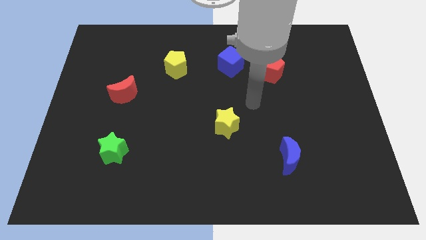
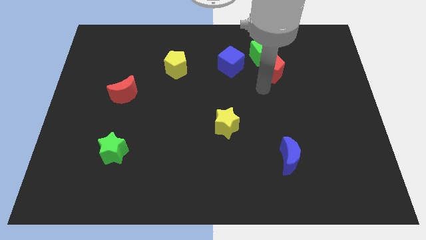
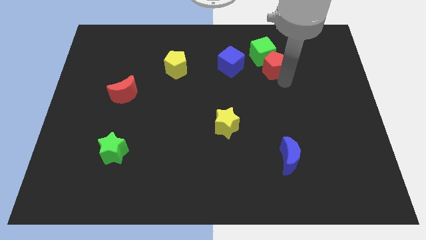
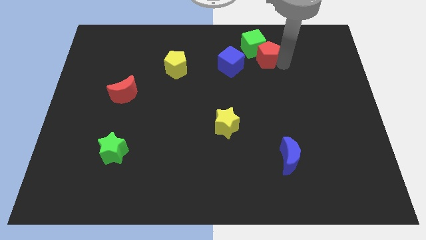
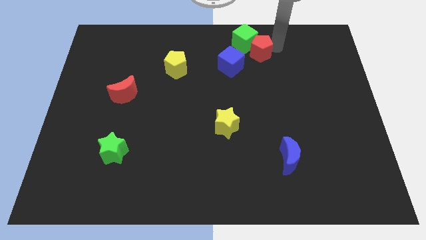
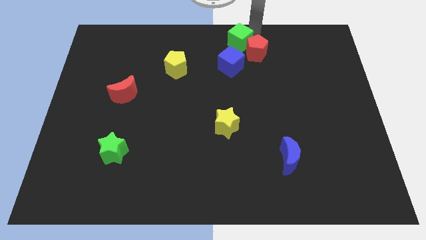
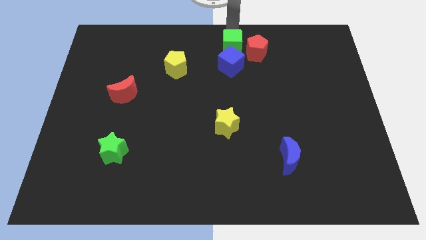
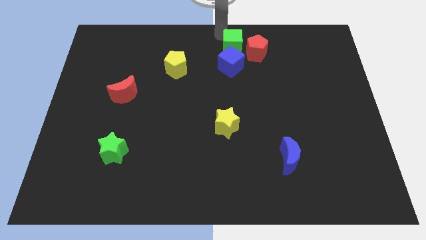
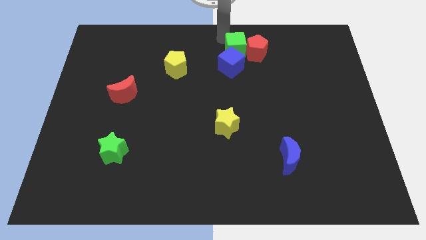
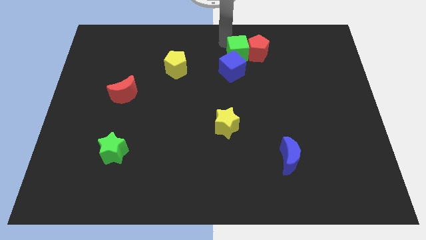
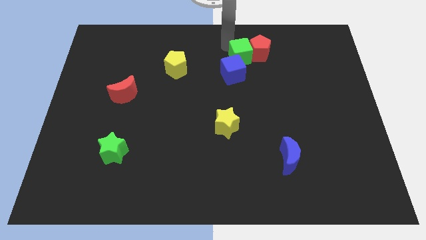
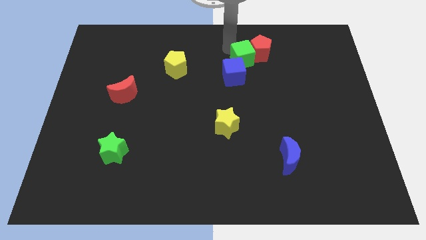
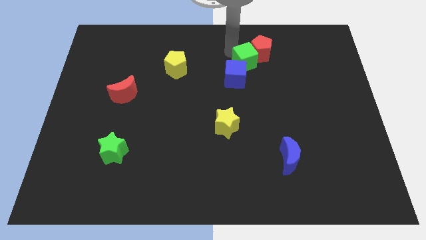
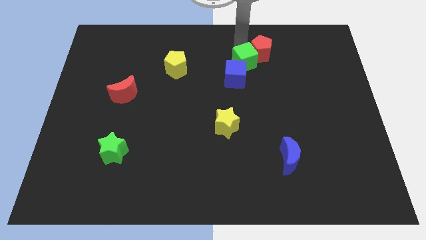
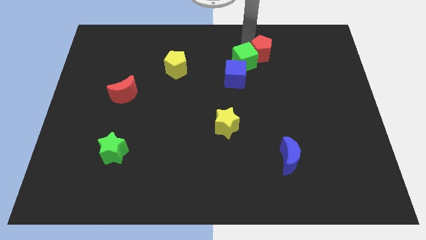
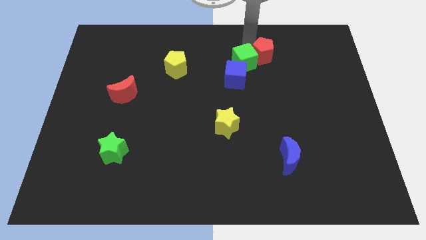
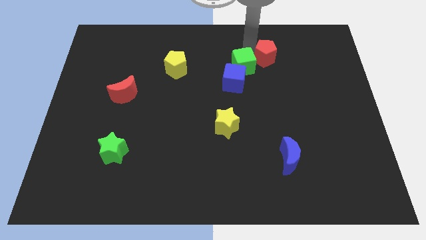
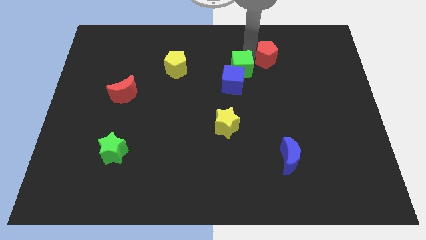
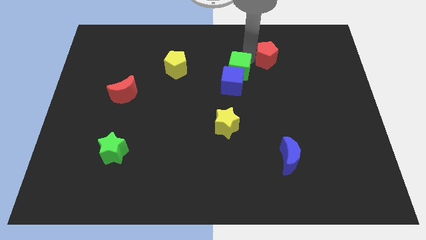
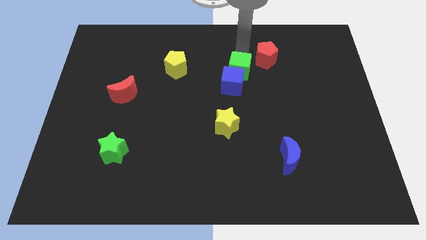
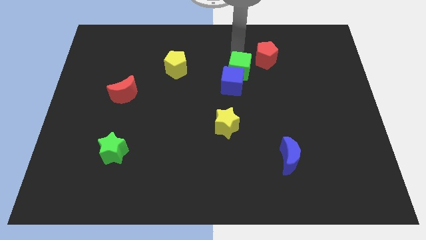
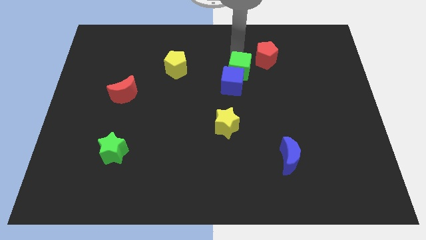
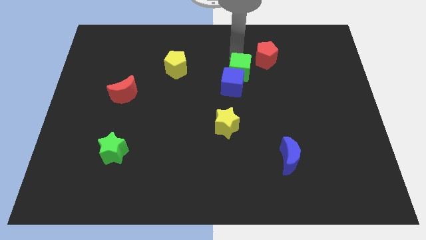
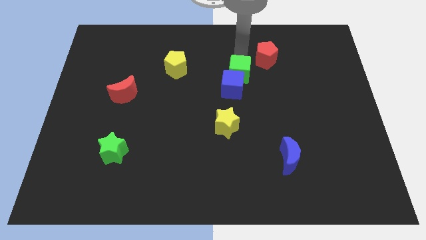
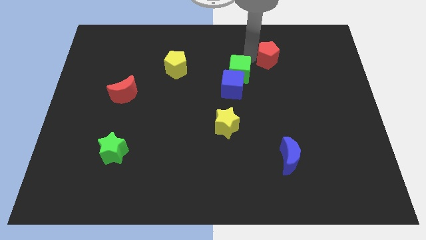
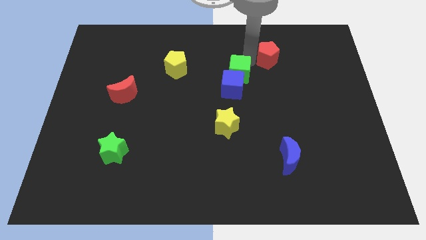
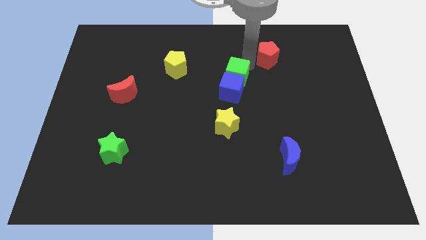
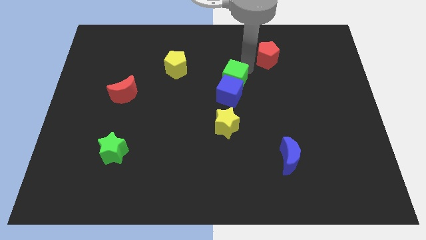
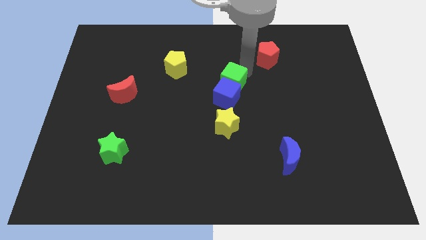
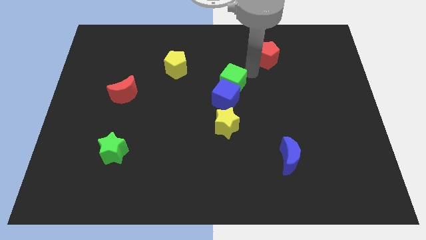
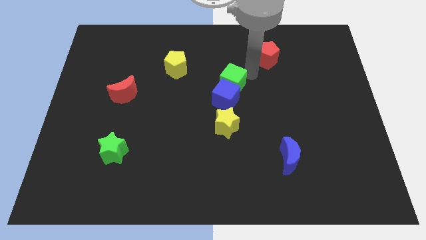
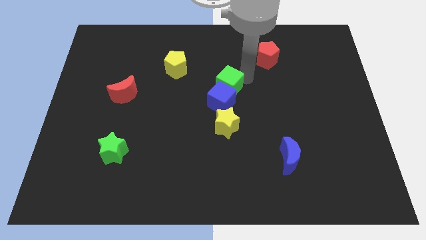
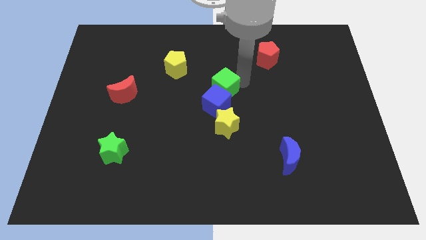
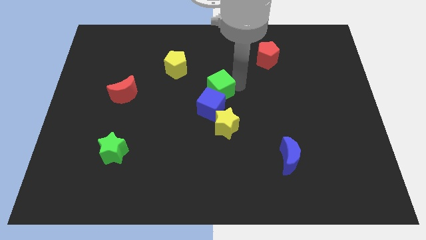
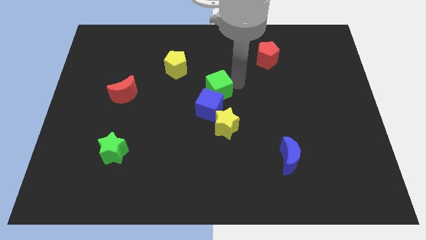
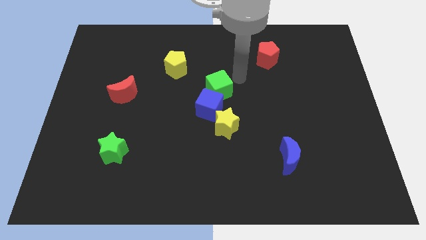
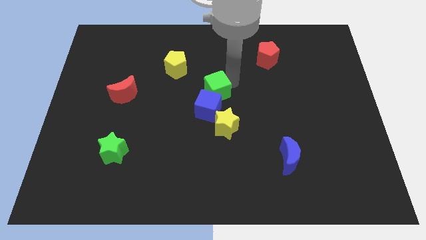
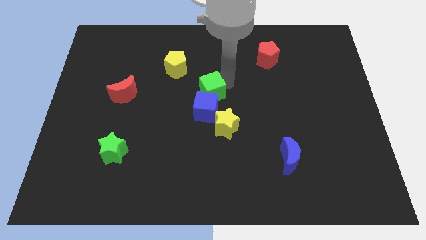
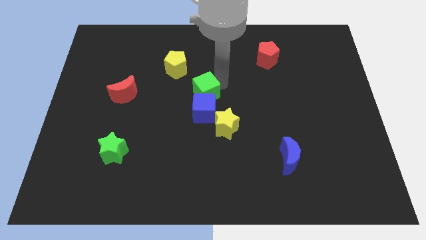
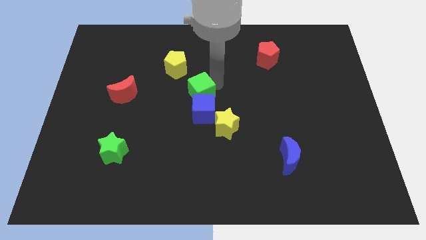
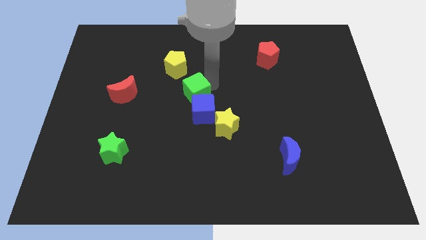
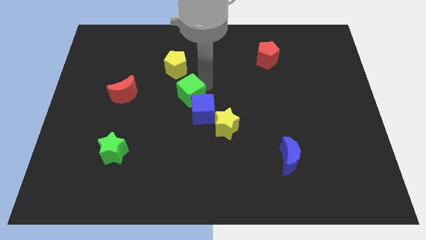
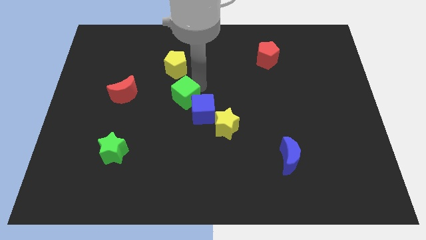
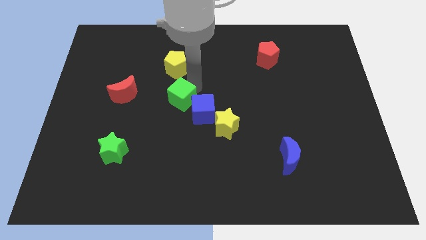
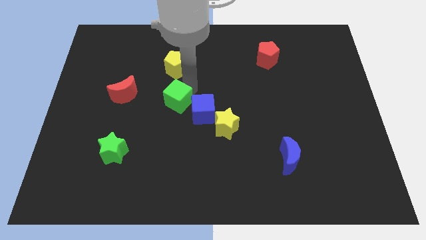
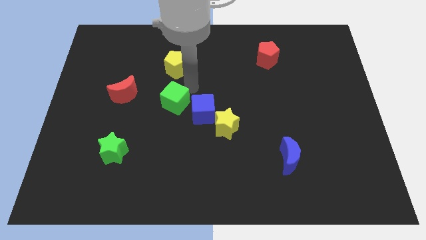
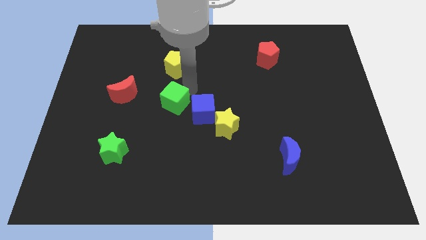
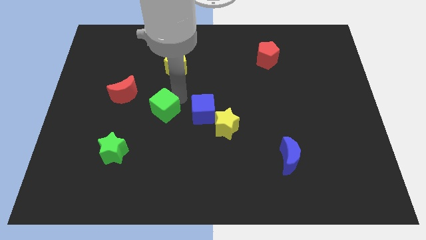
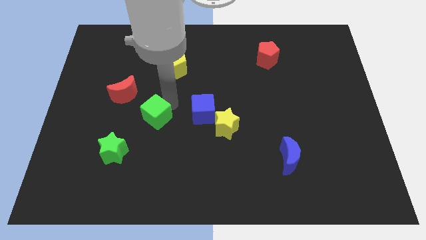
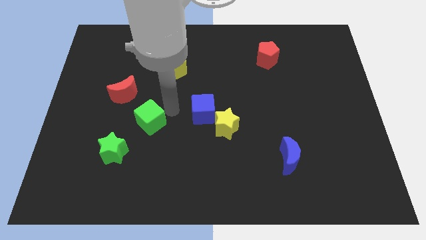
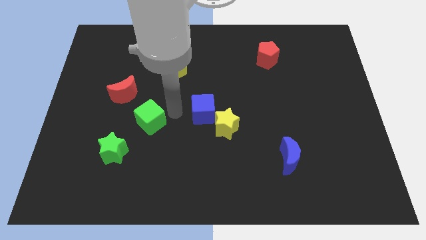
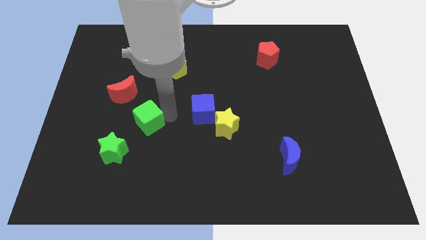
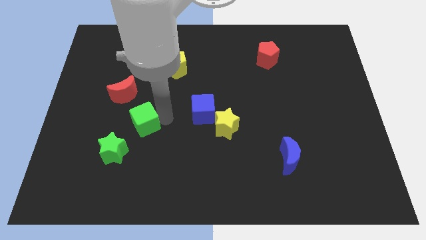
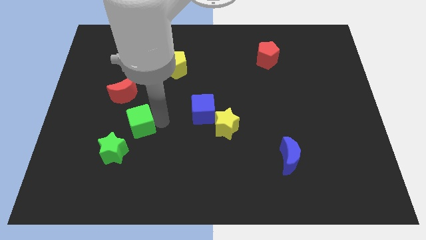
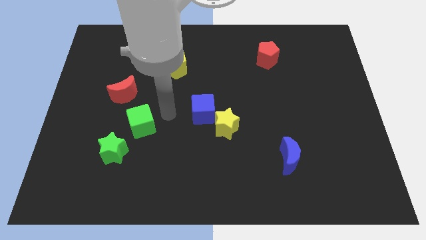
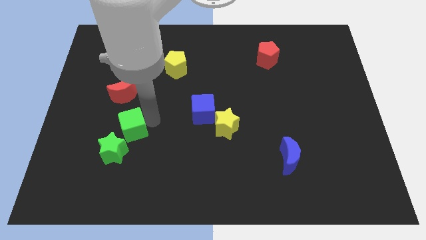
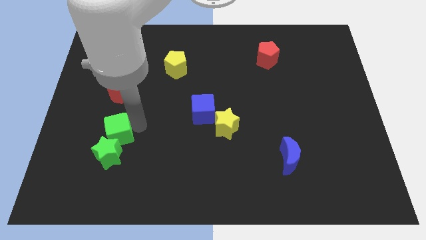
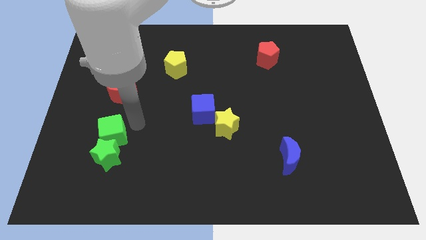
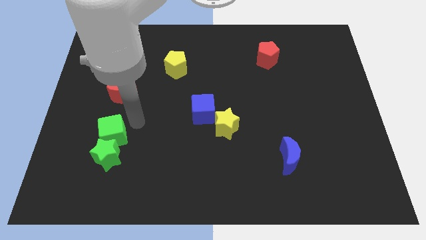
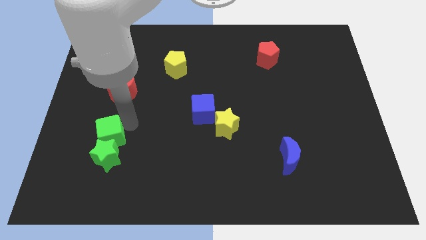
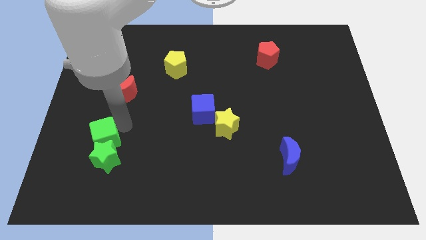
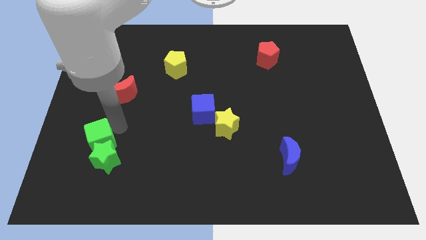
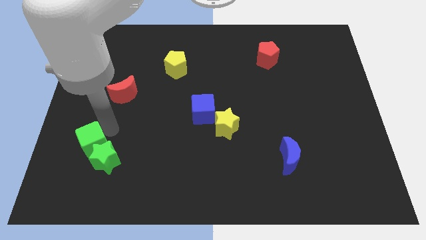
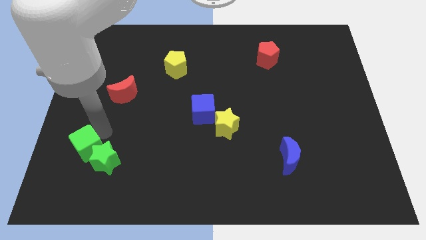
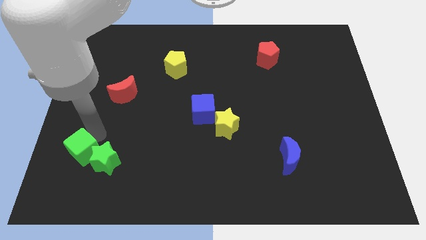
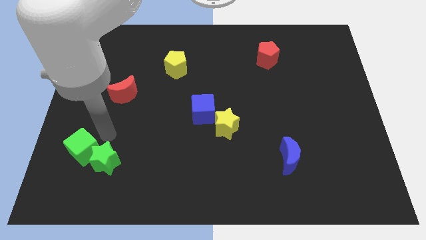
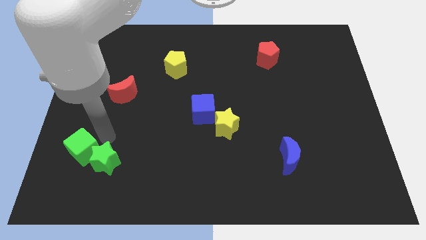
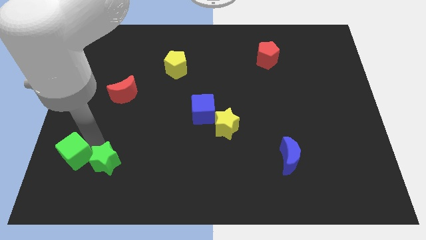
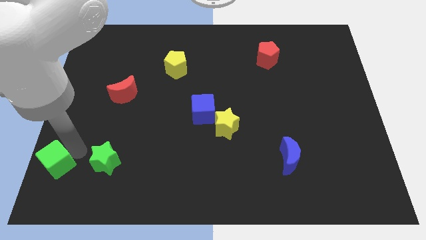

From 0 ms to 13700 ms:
move the green cube to the lower left corner
